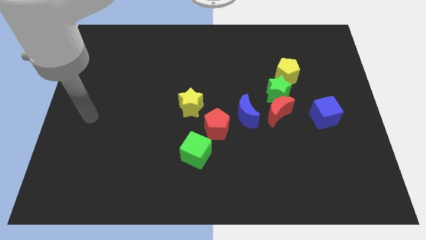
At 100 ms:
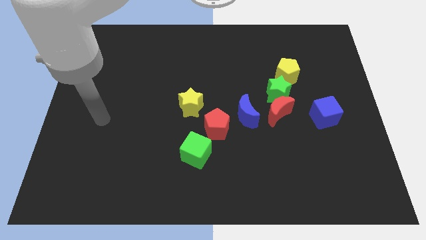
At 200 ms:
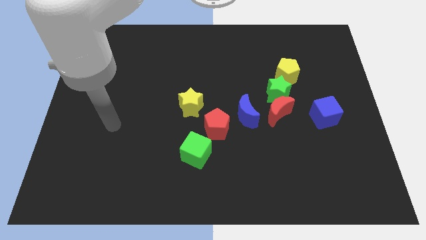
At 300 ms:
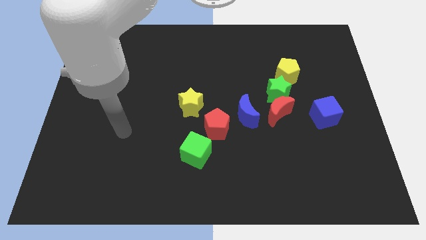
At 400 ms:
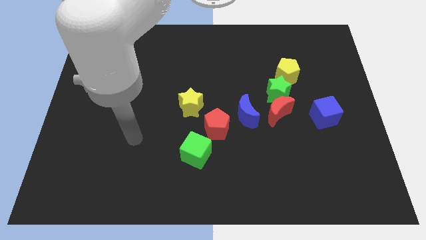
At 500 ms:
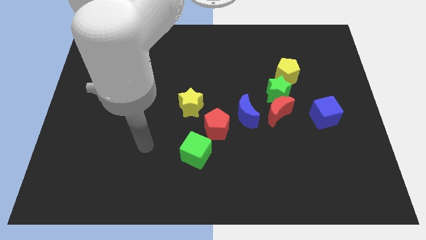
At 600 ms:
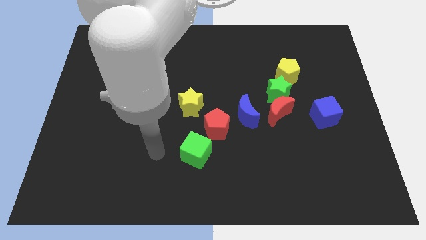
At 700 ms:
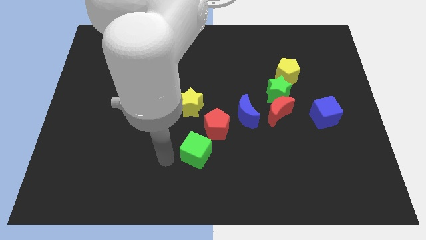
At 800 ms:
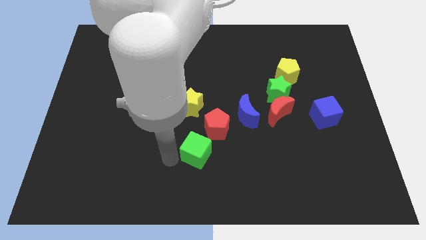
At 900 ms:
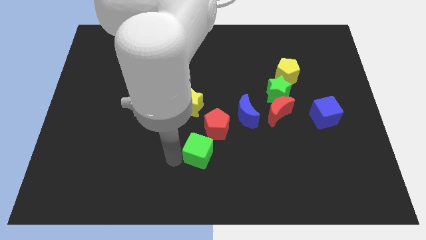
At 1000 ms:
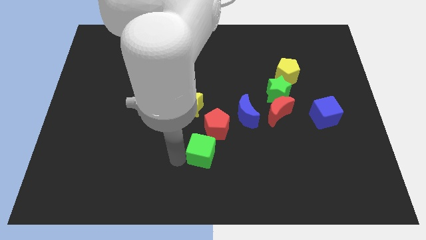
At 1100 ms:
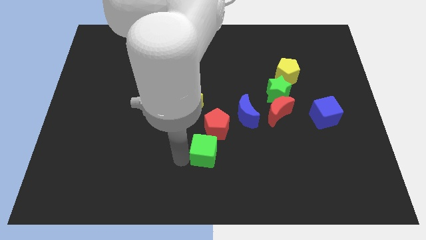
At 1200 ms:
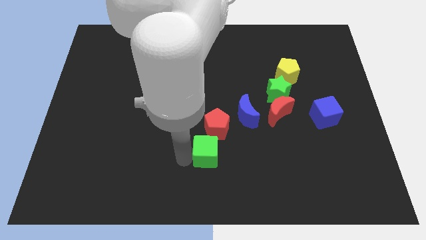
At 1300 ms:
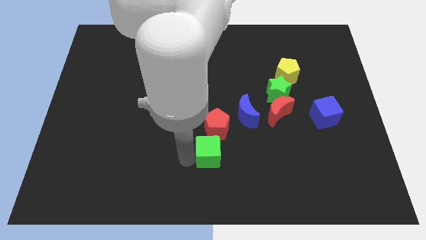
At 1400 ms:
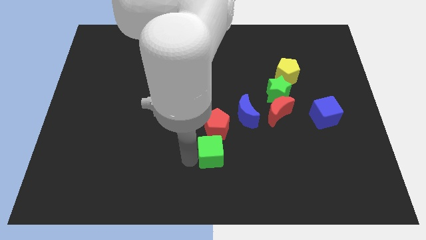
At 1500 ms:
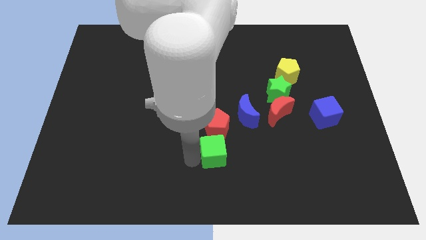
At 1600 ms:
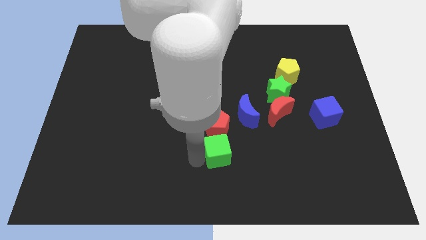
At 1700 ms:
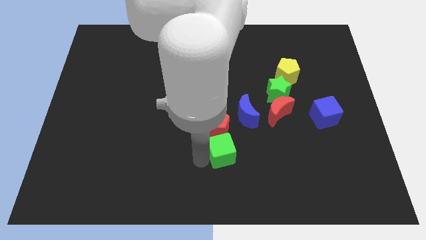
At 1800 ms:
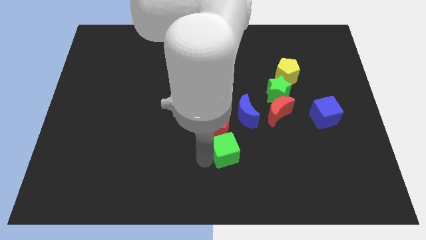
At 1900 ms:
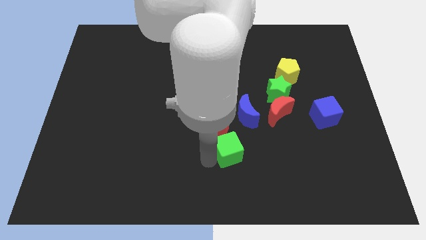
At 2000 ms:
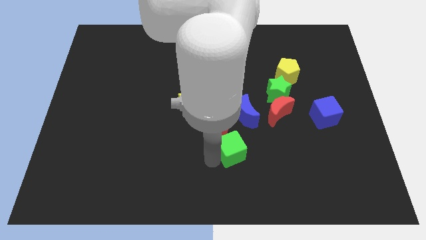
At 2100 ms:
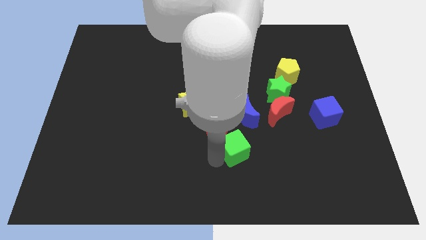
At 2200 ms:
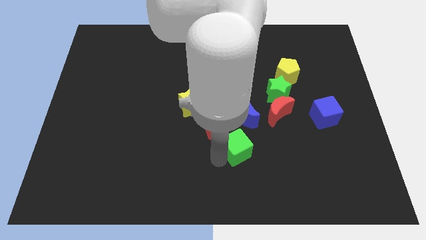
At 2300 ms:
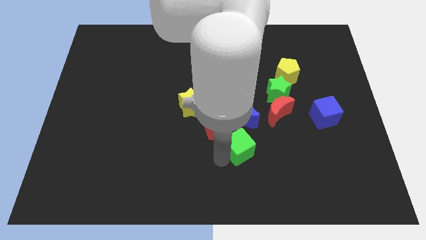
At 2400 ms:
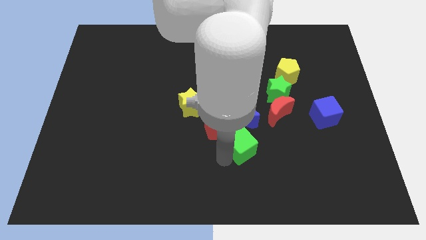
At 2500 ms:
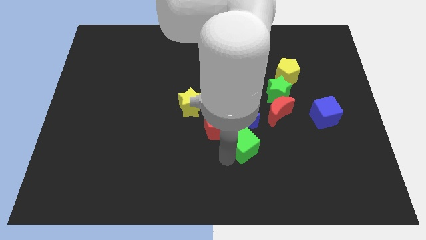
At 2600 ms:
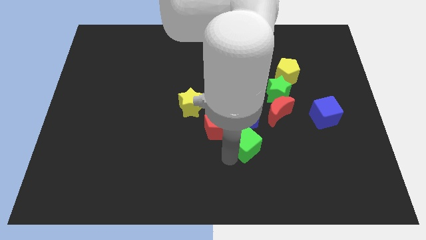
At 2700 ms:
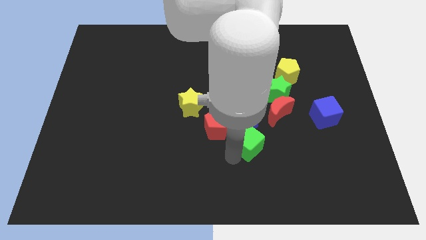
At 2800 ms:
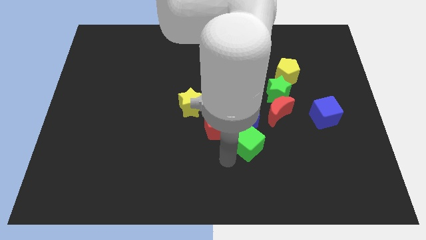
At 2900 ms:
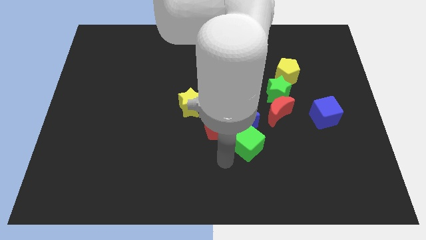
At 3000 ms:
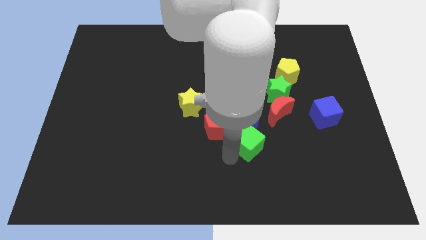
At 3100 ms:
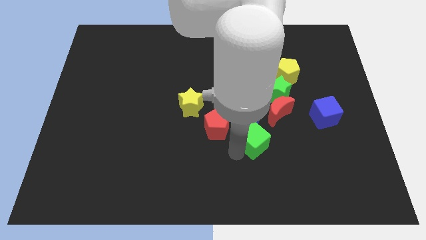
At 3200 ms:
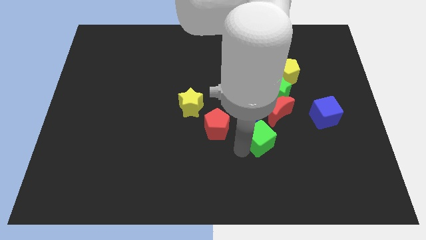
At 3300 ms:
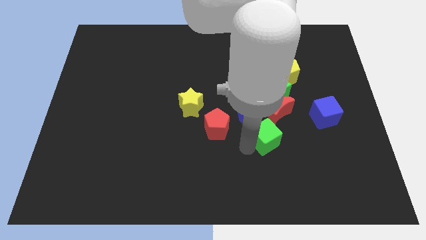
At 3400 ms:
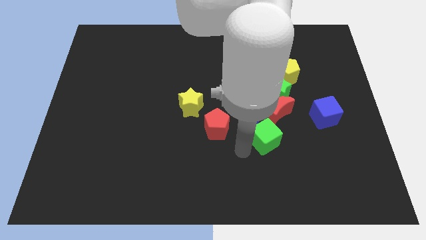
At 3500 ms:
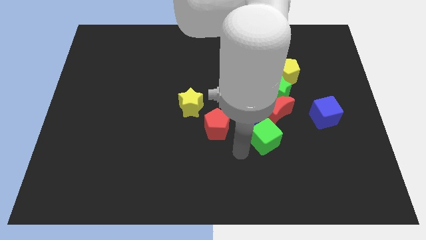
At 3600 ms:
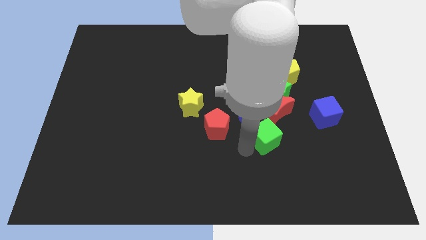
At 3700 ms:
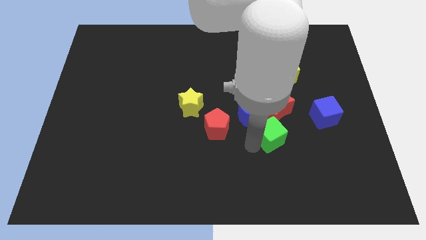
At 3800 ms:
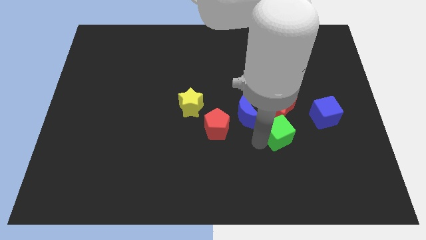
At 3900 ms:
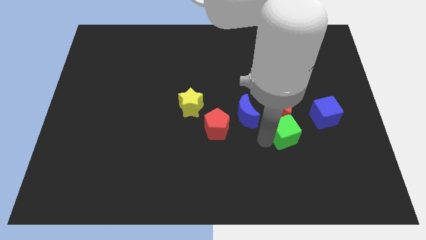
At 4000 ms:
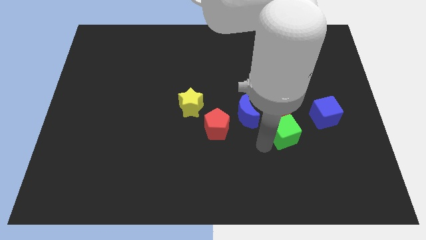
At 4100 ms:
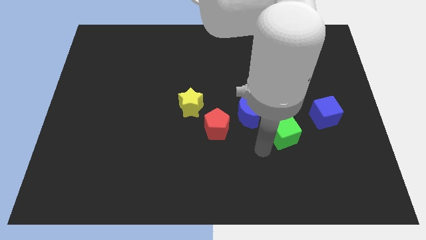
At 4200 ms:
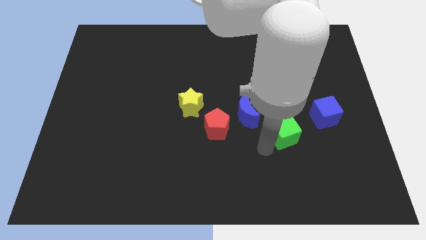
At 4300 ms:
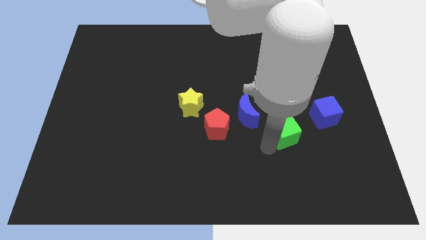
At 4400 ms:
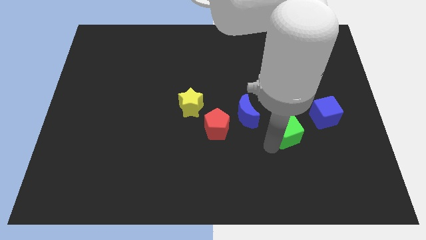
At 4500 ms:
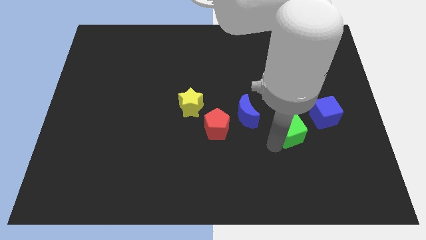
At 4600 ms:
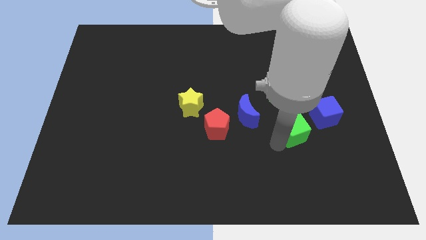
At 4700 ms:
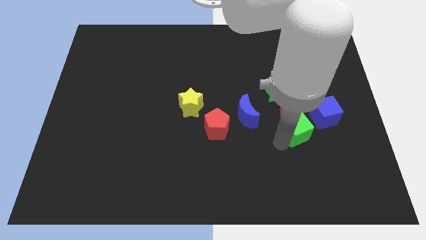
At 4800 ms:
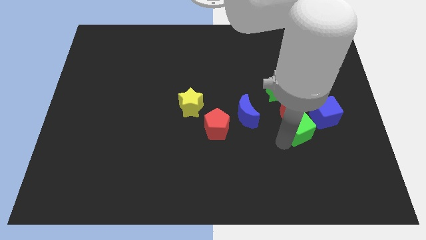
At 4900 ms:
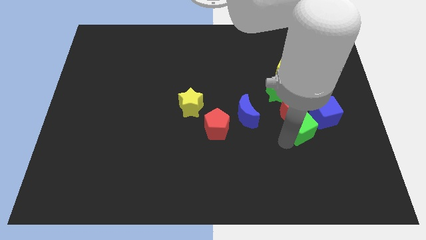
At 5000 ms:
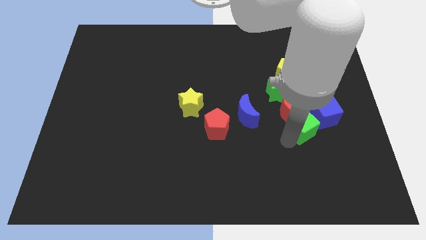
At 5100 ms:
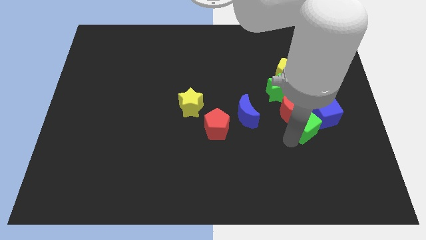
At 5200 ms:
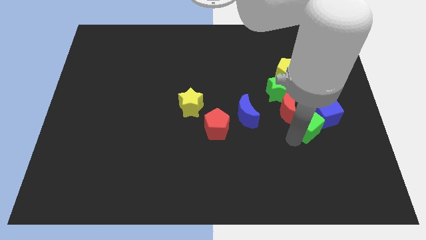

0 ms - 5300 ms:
slide the green cube next to the blue cube

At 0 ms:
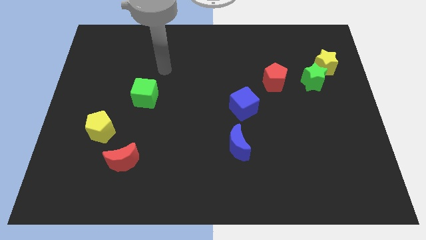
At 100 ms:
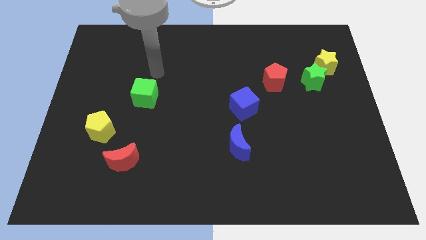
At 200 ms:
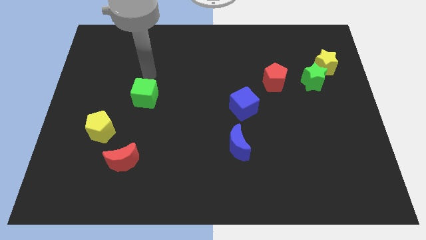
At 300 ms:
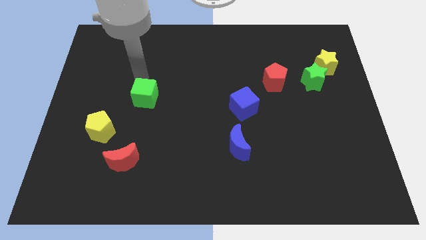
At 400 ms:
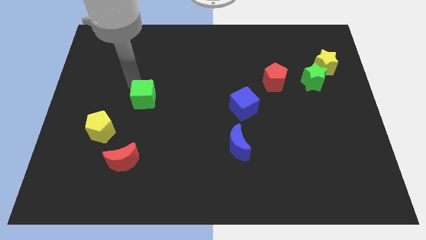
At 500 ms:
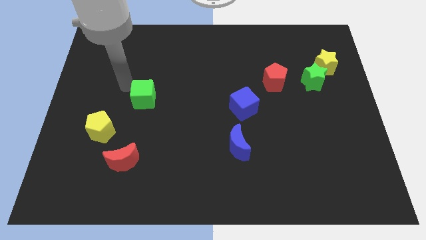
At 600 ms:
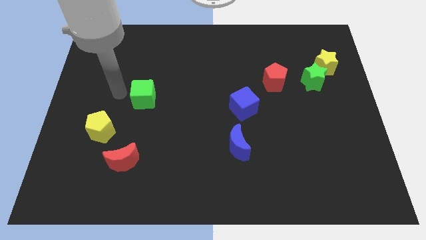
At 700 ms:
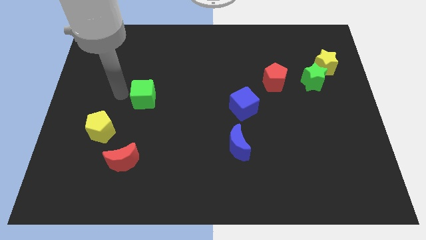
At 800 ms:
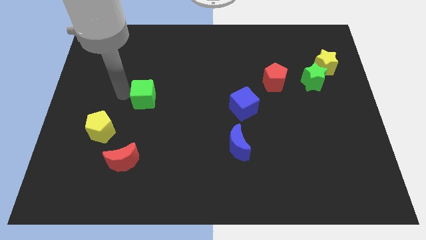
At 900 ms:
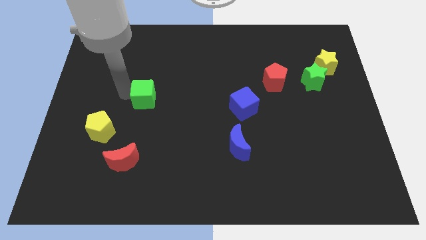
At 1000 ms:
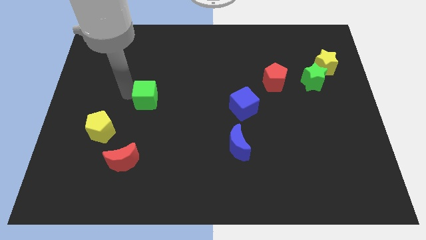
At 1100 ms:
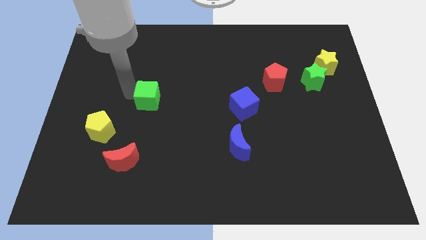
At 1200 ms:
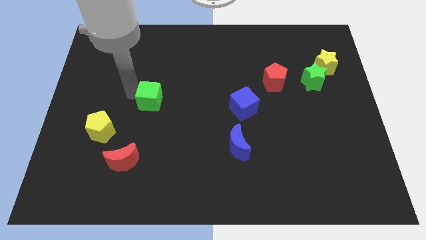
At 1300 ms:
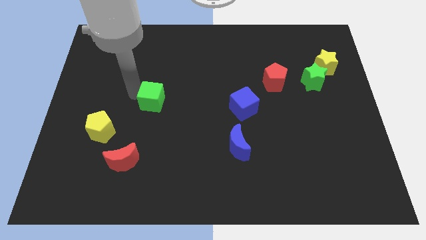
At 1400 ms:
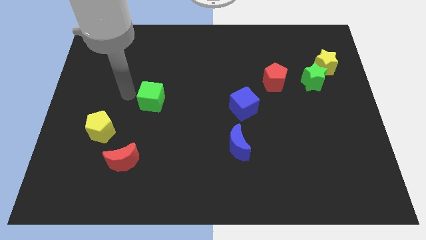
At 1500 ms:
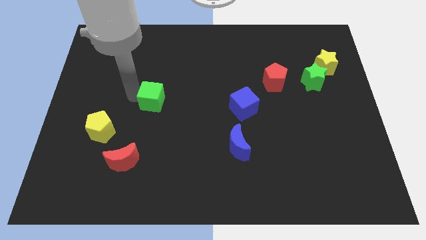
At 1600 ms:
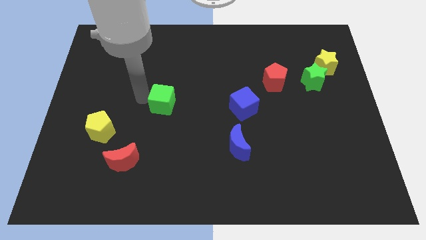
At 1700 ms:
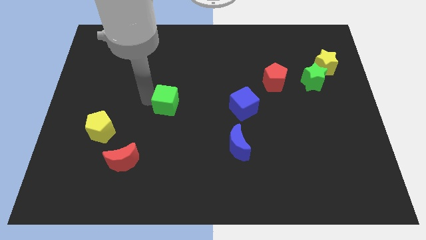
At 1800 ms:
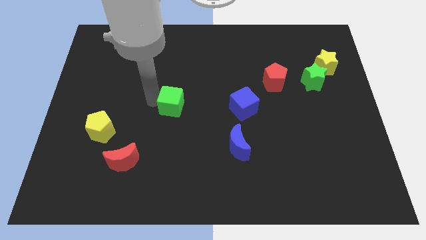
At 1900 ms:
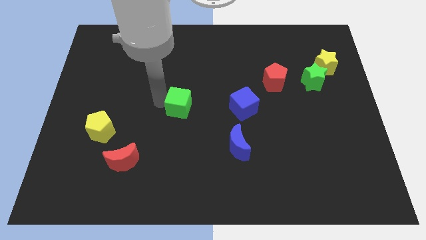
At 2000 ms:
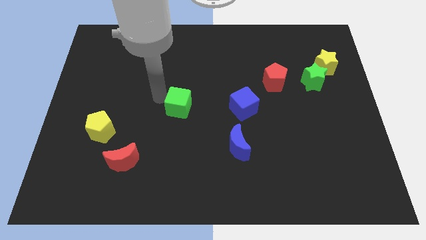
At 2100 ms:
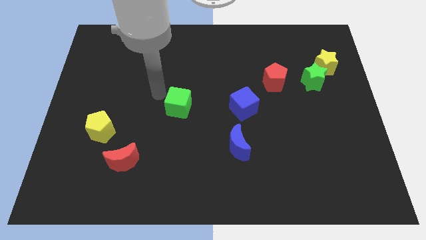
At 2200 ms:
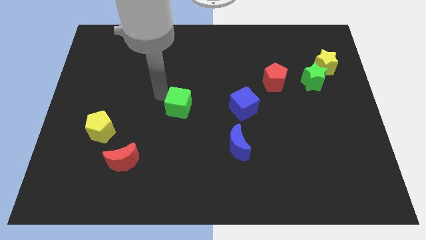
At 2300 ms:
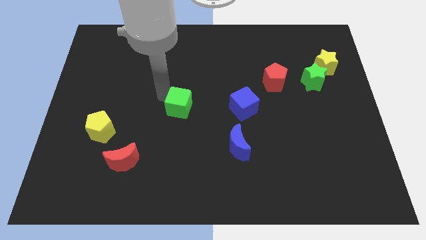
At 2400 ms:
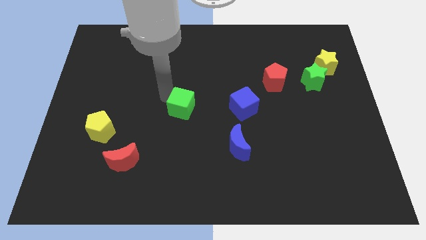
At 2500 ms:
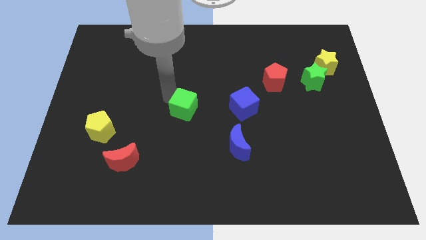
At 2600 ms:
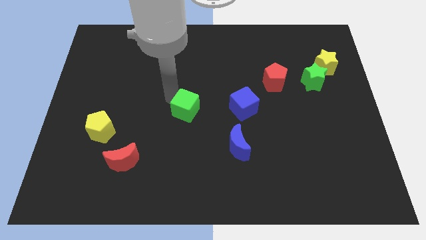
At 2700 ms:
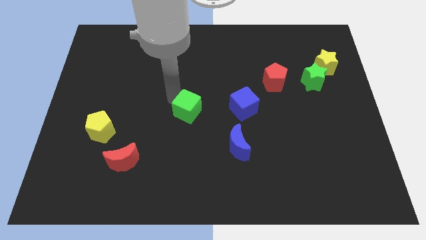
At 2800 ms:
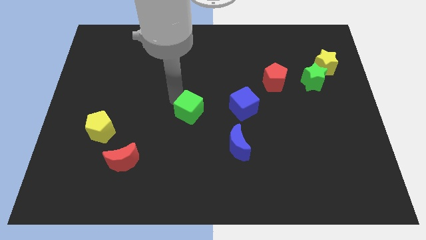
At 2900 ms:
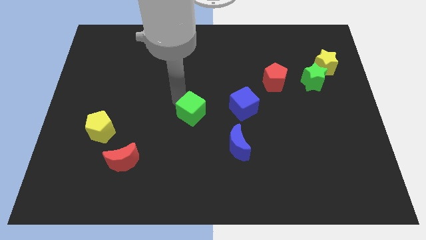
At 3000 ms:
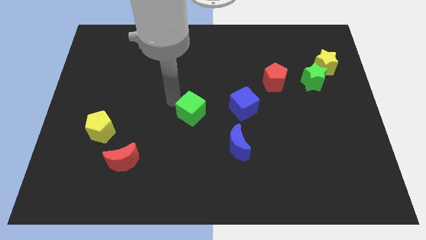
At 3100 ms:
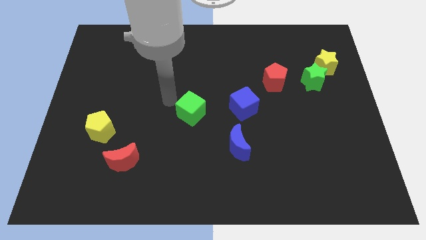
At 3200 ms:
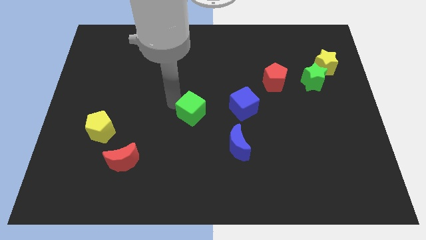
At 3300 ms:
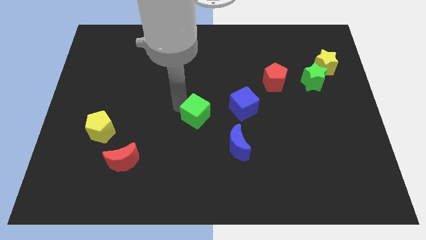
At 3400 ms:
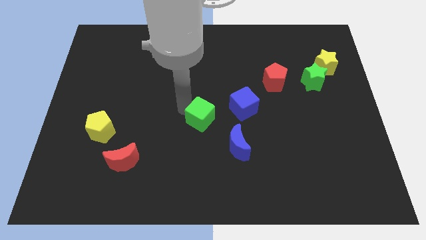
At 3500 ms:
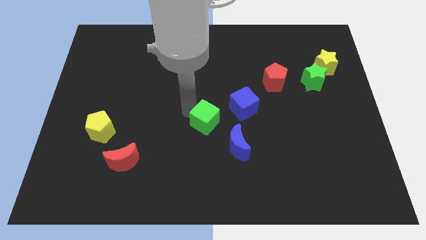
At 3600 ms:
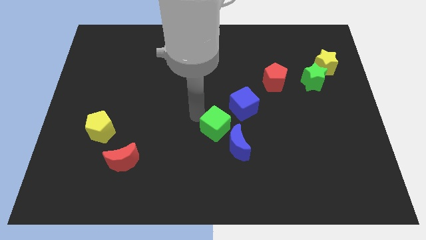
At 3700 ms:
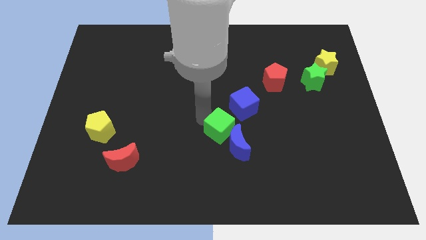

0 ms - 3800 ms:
put the green cube to the blue moon
